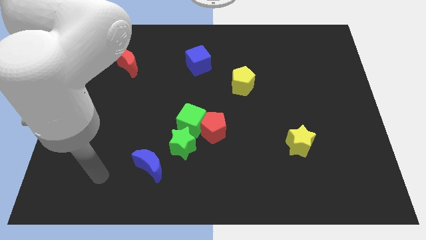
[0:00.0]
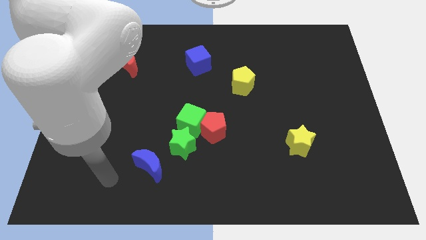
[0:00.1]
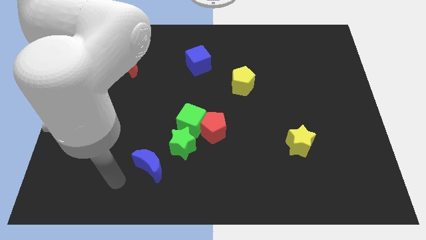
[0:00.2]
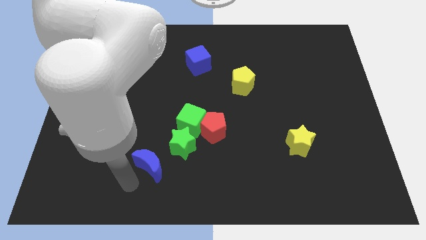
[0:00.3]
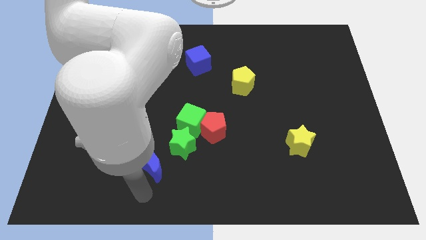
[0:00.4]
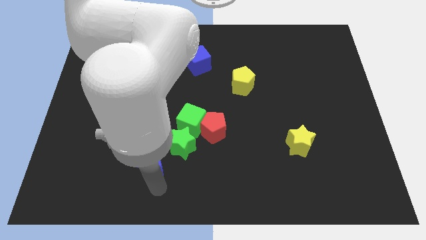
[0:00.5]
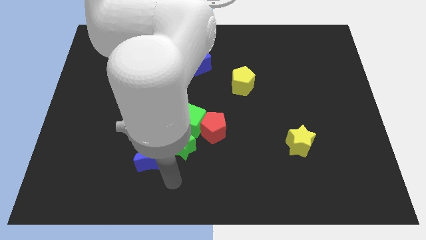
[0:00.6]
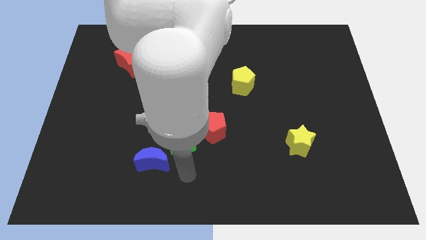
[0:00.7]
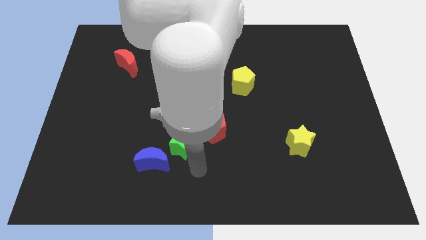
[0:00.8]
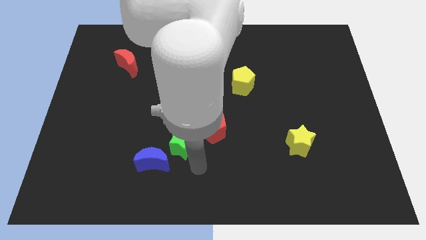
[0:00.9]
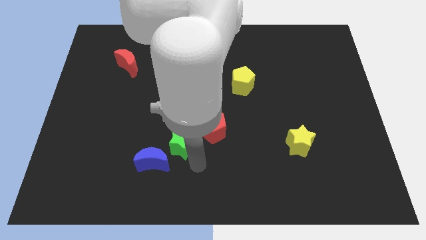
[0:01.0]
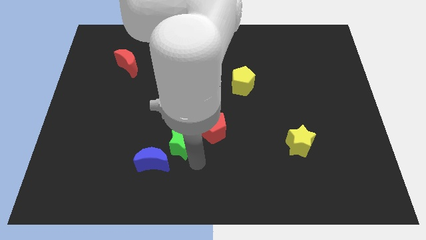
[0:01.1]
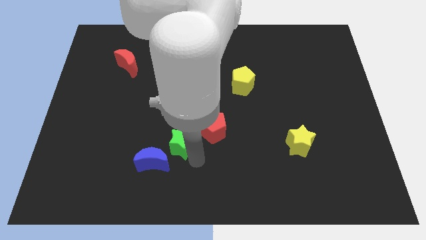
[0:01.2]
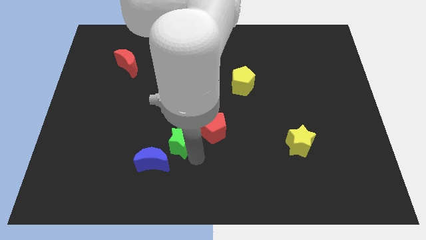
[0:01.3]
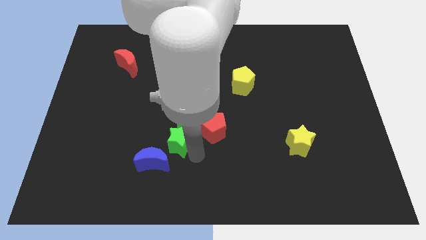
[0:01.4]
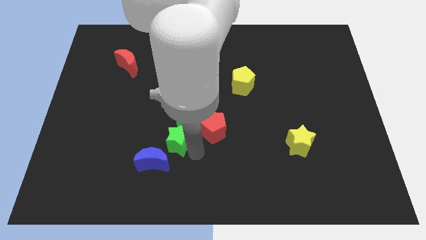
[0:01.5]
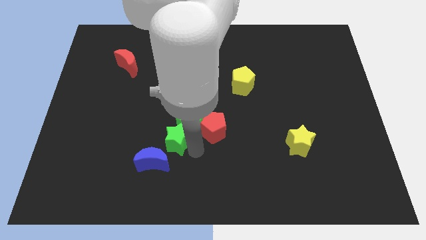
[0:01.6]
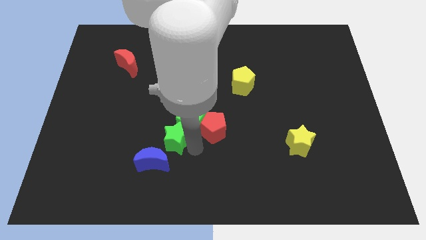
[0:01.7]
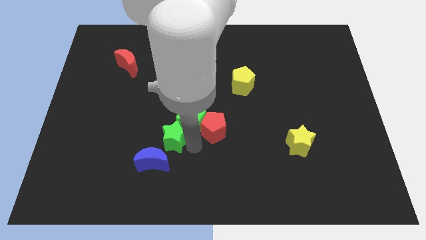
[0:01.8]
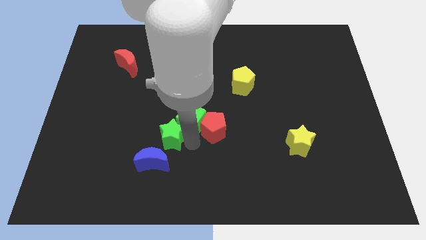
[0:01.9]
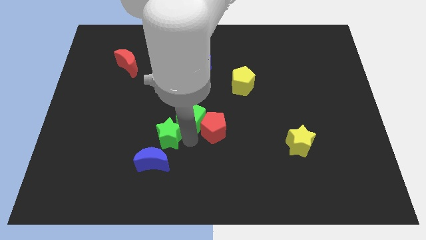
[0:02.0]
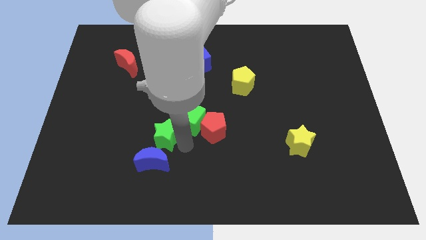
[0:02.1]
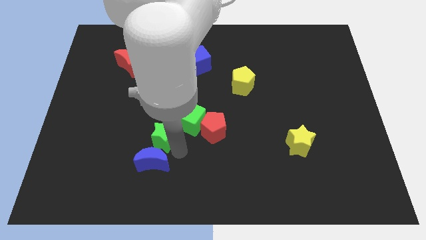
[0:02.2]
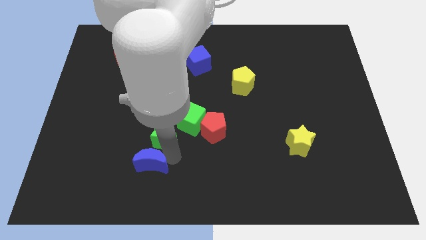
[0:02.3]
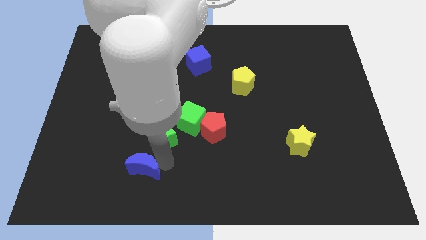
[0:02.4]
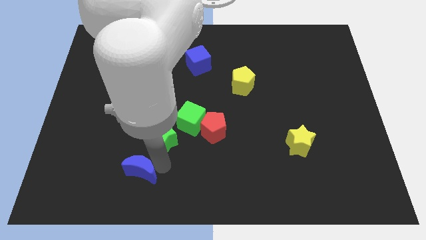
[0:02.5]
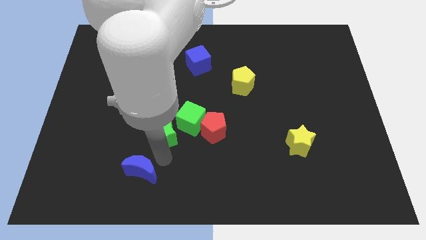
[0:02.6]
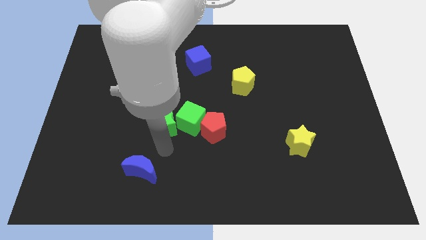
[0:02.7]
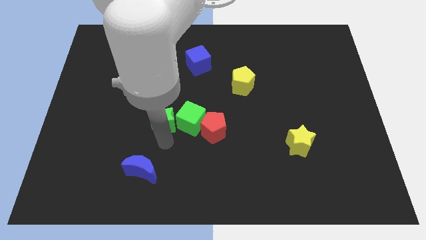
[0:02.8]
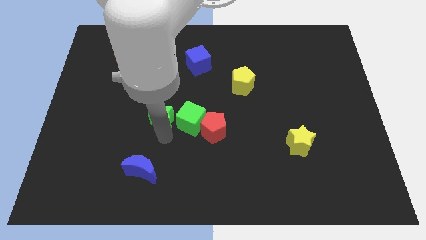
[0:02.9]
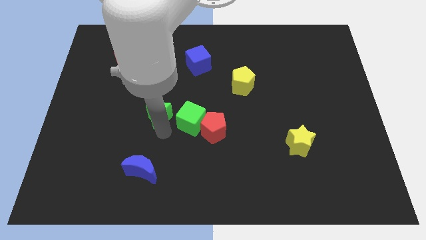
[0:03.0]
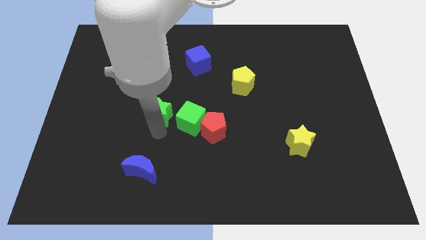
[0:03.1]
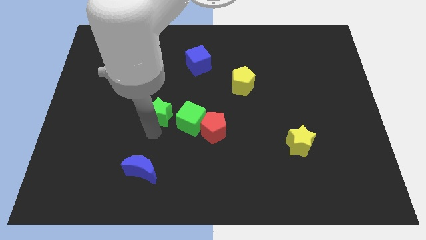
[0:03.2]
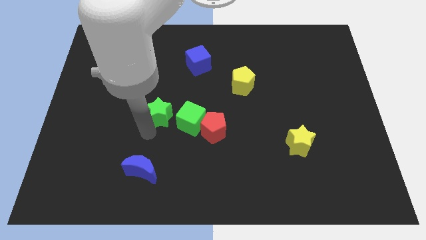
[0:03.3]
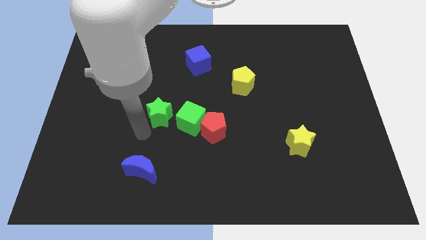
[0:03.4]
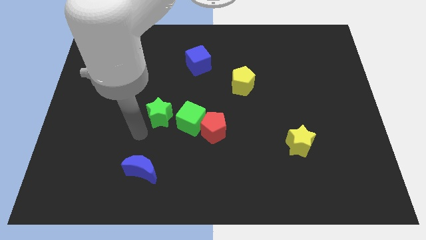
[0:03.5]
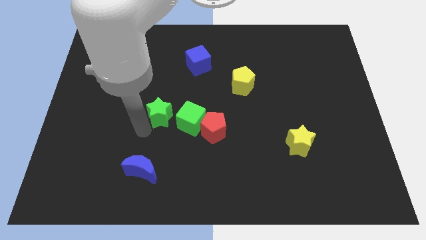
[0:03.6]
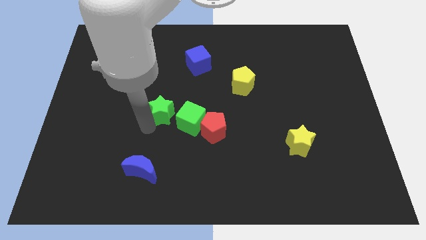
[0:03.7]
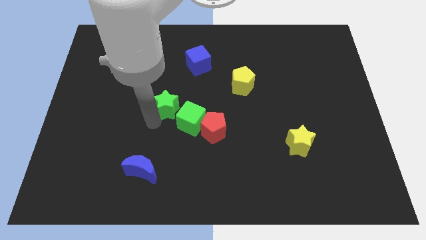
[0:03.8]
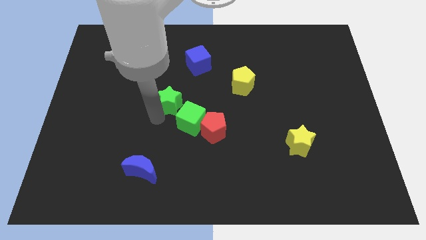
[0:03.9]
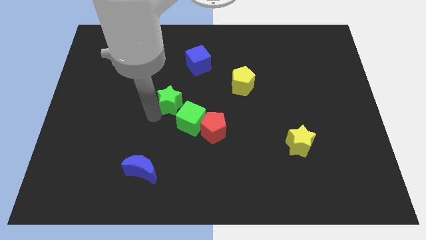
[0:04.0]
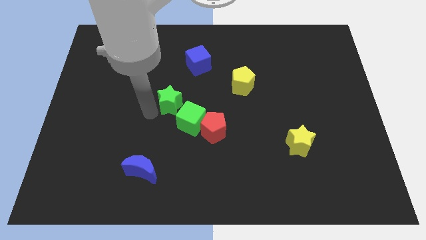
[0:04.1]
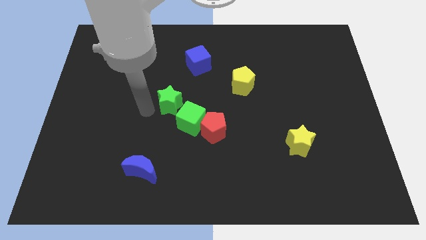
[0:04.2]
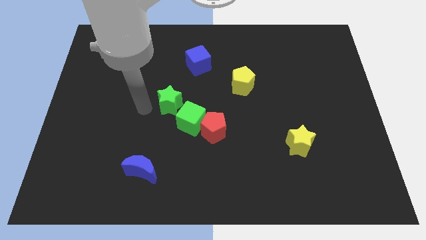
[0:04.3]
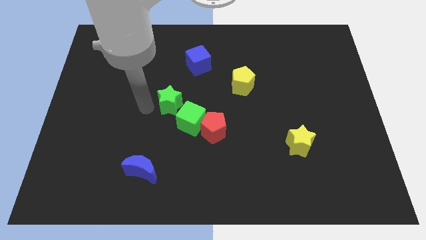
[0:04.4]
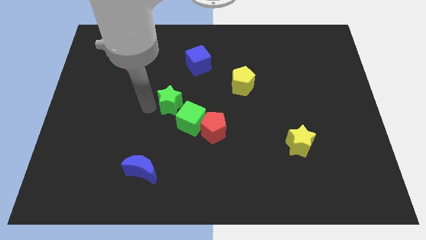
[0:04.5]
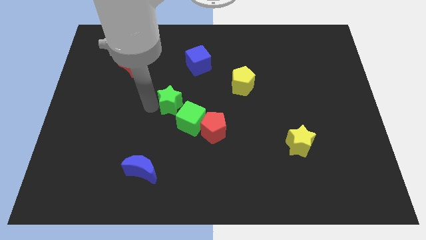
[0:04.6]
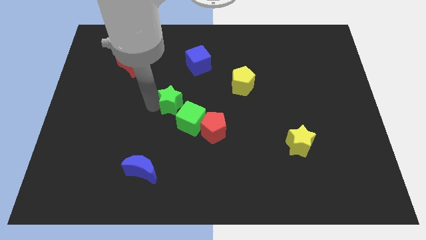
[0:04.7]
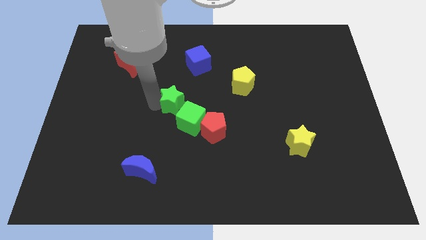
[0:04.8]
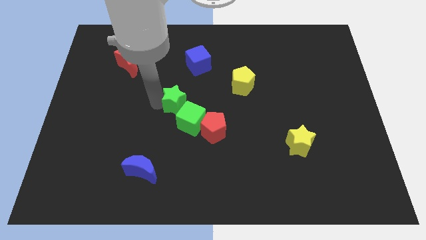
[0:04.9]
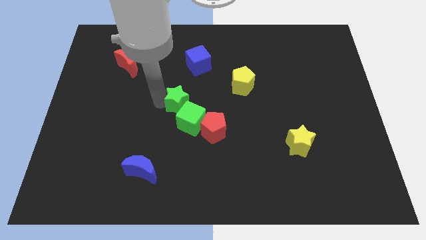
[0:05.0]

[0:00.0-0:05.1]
put the green star to the bottom of the blue cube

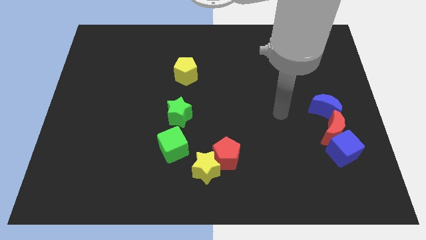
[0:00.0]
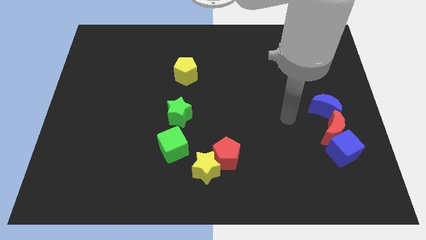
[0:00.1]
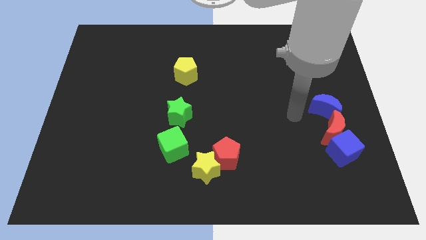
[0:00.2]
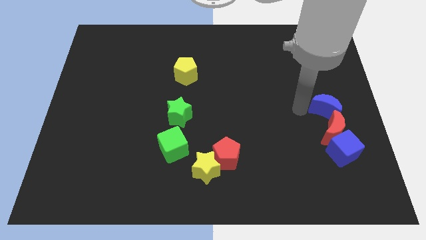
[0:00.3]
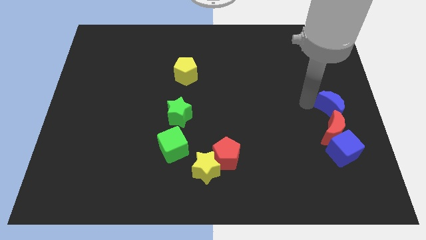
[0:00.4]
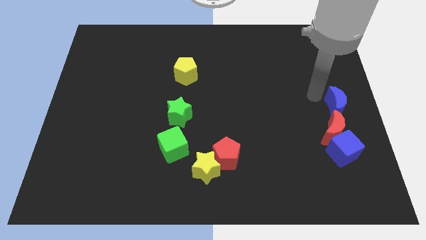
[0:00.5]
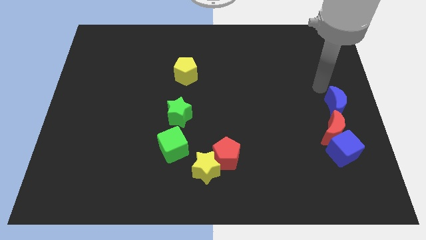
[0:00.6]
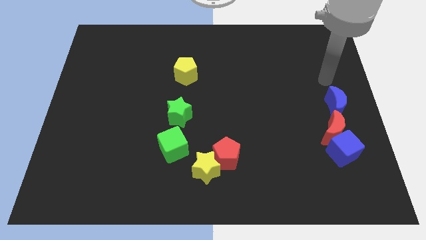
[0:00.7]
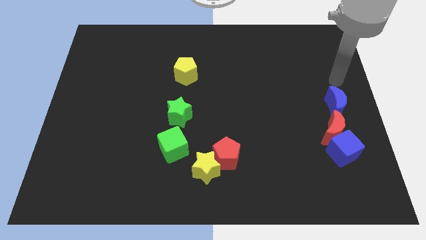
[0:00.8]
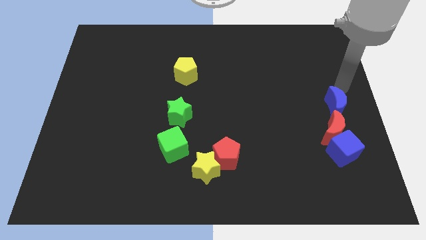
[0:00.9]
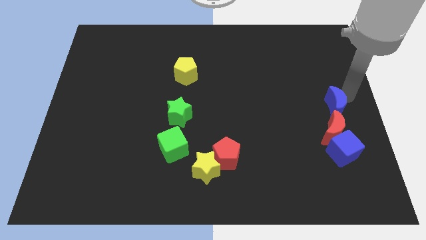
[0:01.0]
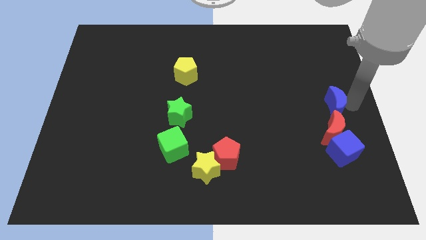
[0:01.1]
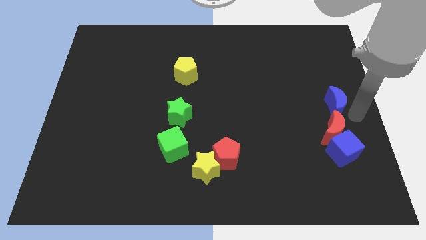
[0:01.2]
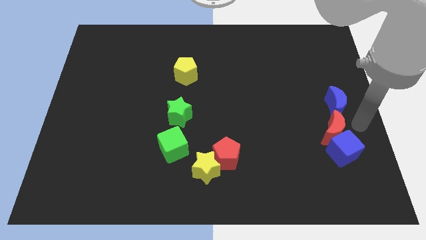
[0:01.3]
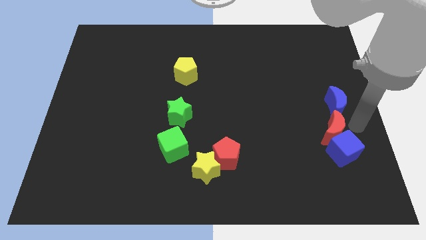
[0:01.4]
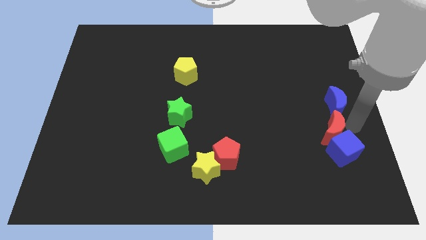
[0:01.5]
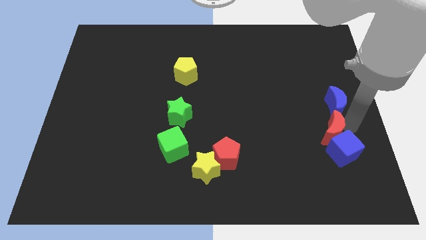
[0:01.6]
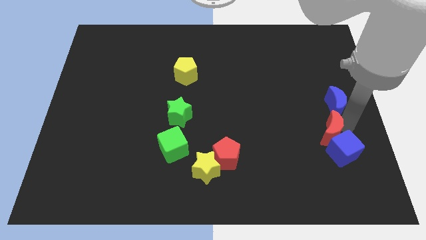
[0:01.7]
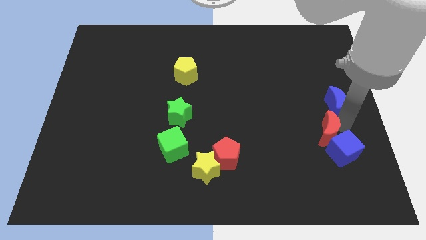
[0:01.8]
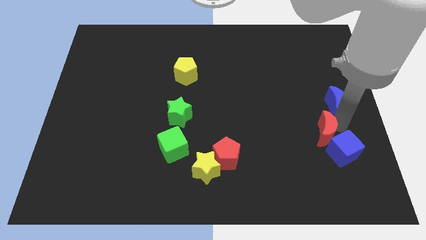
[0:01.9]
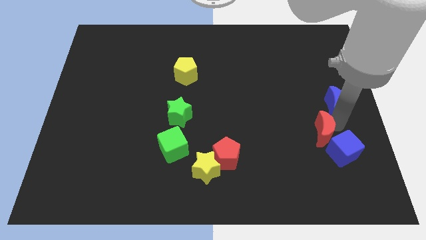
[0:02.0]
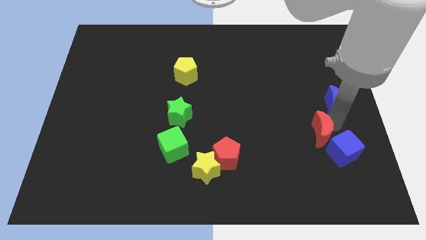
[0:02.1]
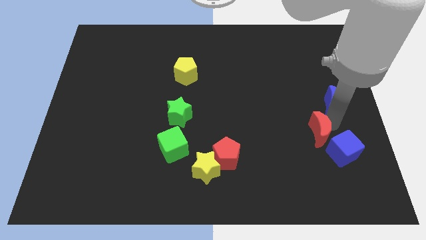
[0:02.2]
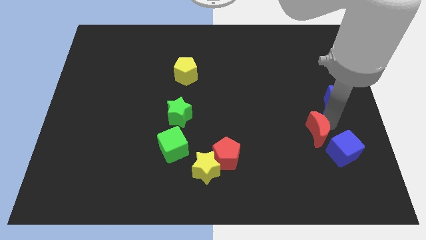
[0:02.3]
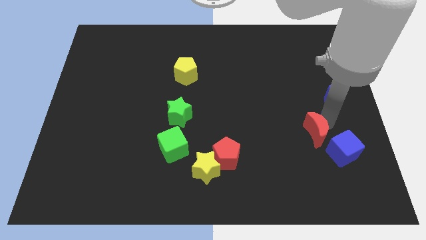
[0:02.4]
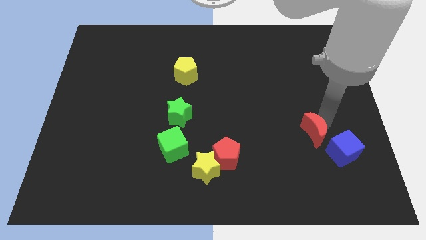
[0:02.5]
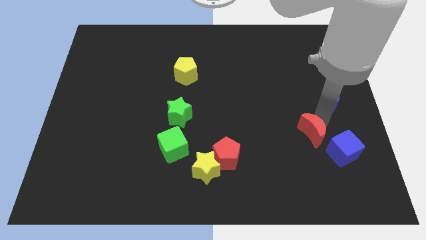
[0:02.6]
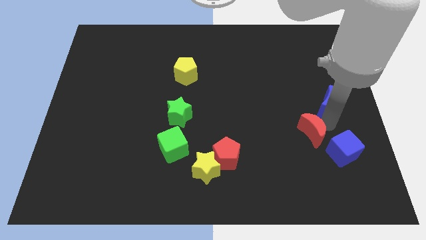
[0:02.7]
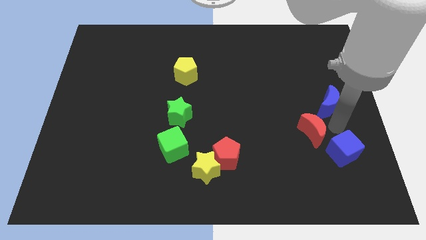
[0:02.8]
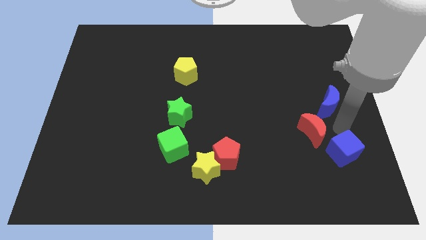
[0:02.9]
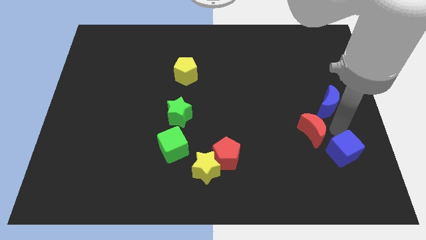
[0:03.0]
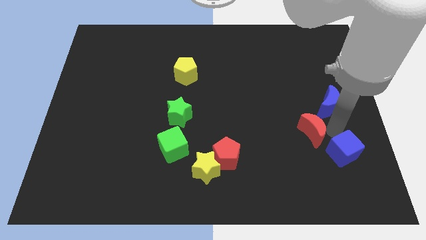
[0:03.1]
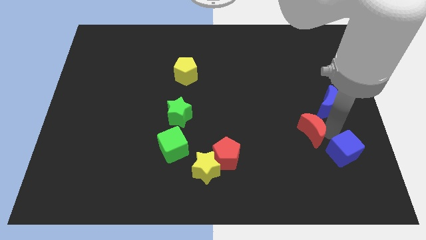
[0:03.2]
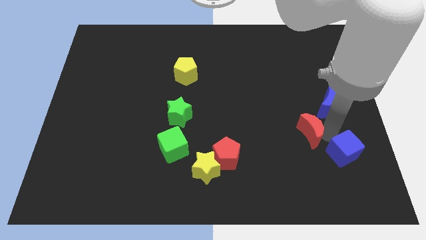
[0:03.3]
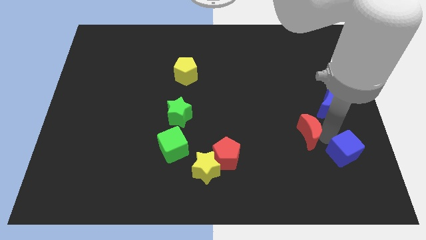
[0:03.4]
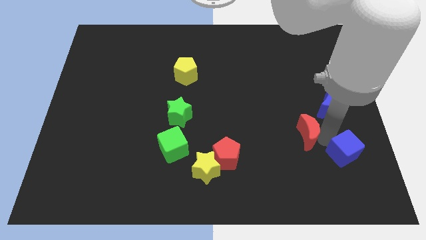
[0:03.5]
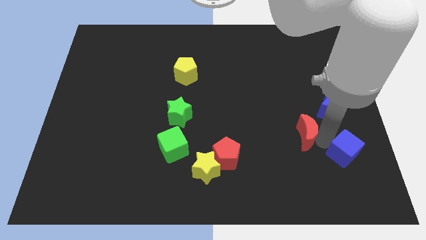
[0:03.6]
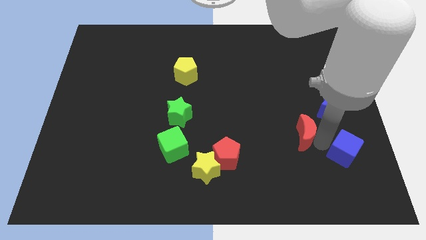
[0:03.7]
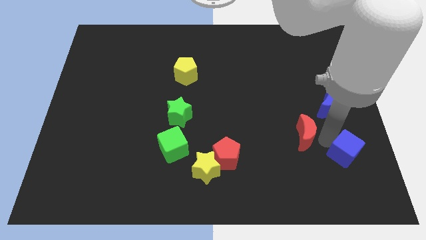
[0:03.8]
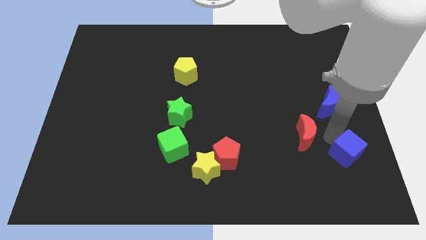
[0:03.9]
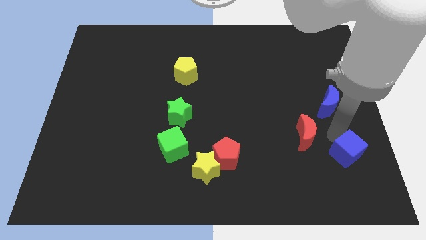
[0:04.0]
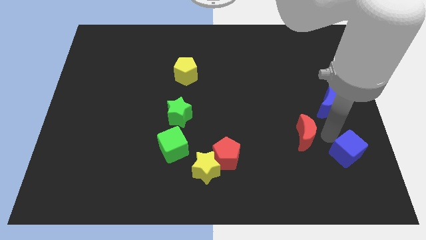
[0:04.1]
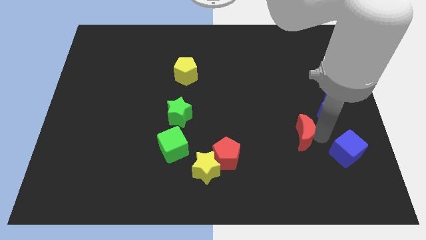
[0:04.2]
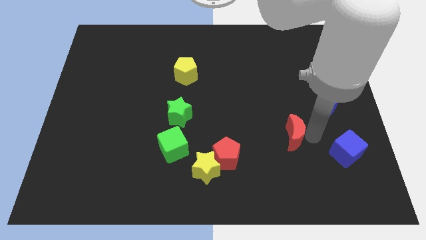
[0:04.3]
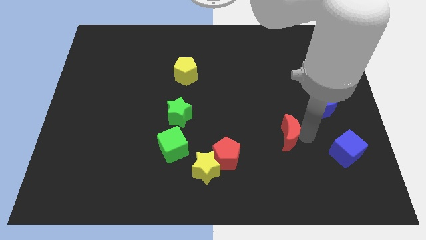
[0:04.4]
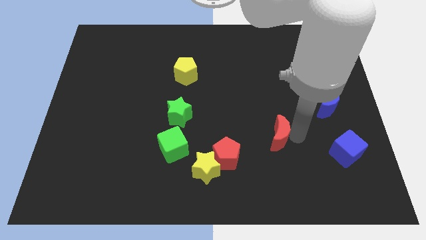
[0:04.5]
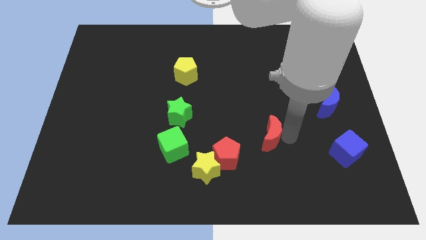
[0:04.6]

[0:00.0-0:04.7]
move the red moon diagonally up and to the right of the red pentagon
